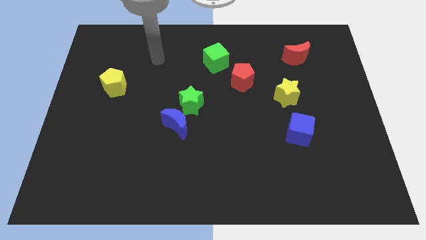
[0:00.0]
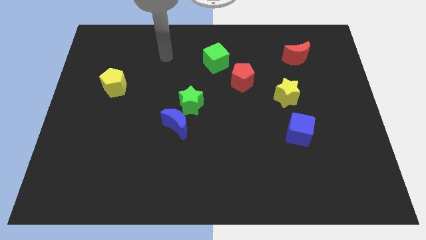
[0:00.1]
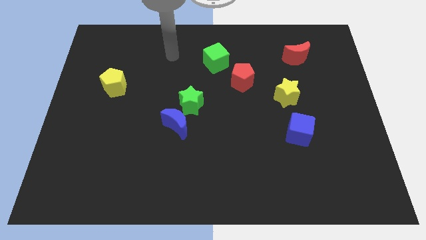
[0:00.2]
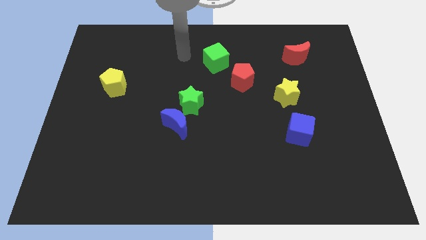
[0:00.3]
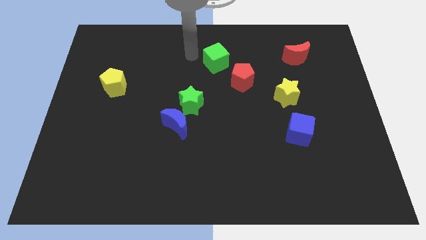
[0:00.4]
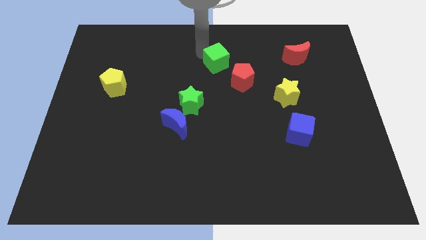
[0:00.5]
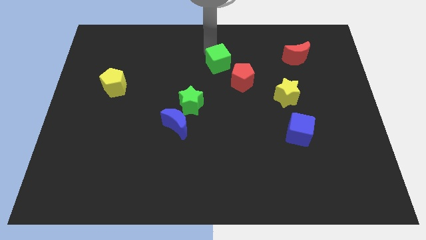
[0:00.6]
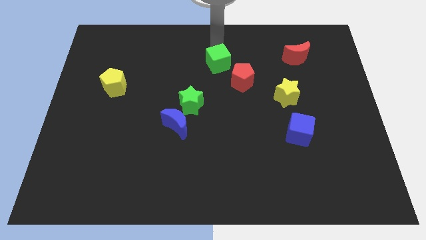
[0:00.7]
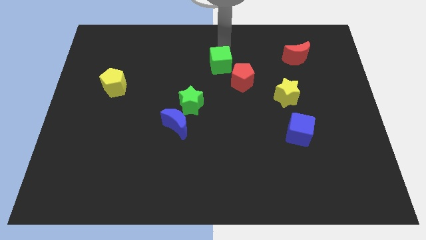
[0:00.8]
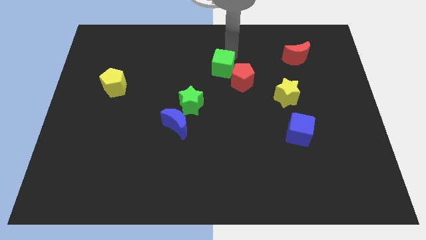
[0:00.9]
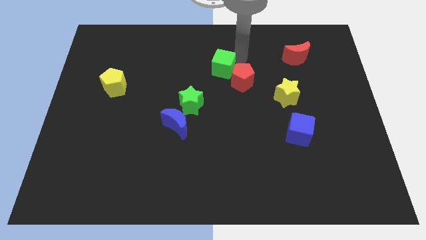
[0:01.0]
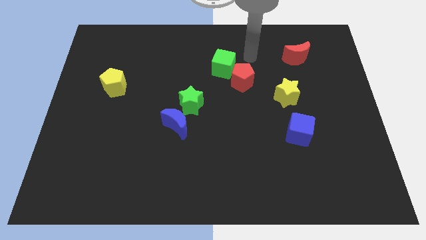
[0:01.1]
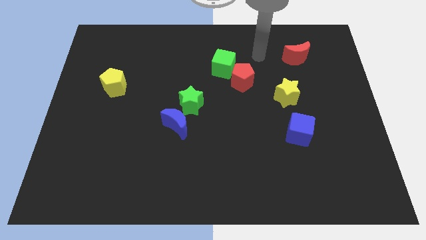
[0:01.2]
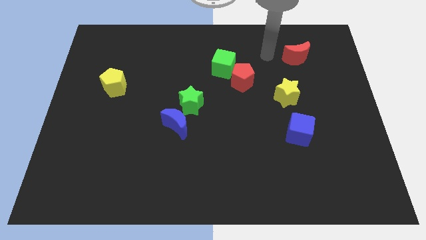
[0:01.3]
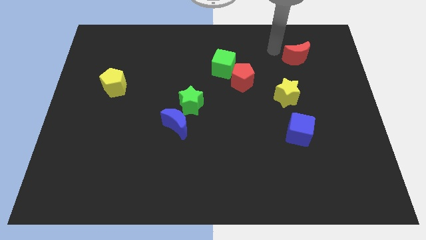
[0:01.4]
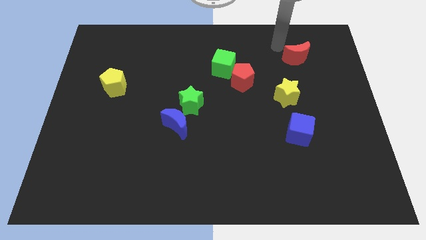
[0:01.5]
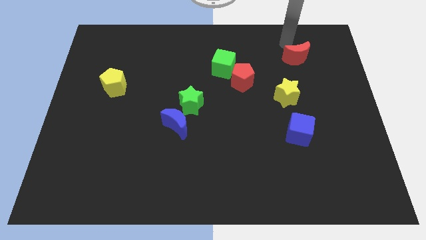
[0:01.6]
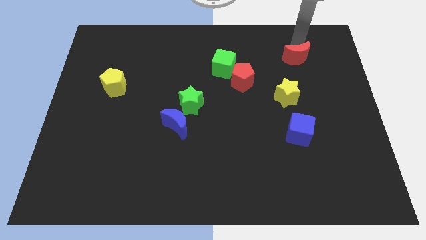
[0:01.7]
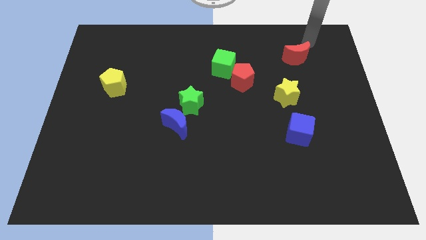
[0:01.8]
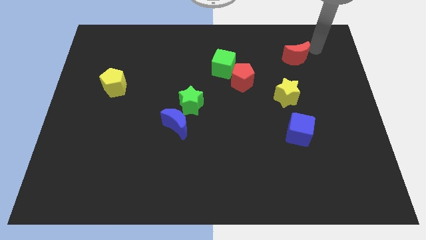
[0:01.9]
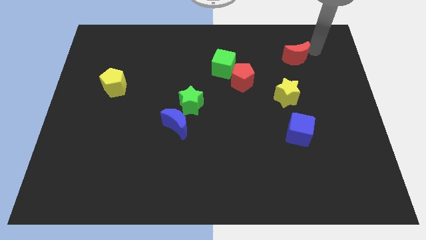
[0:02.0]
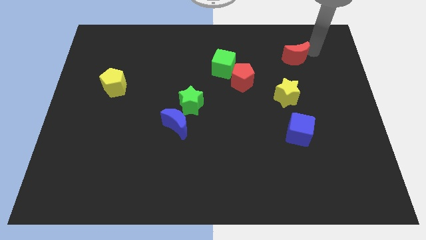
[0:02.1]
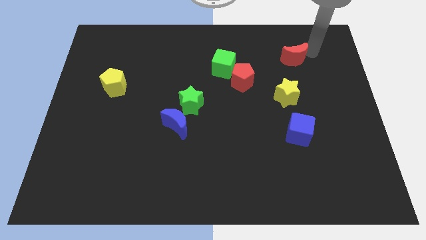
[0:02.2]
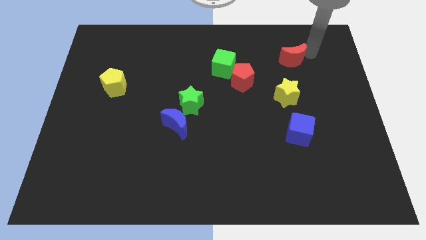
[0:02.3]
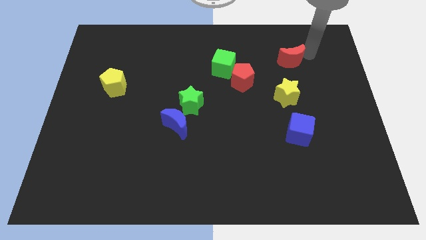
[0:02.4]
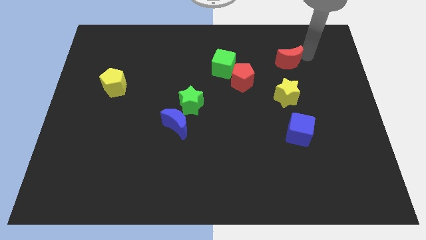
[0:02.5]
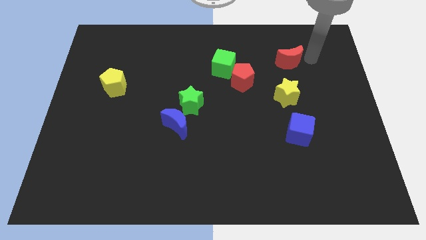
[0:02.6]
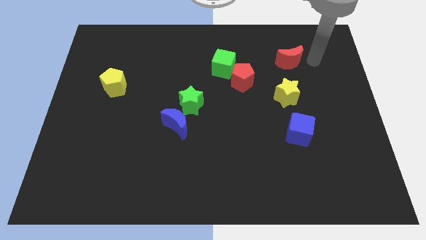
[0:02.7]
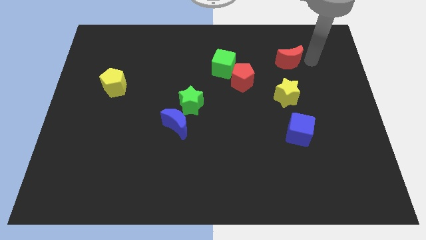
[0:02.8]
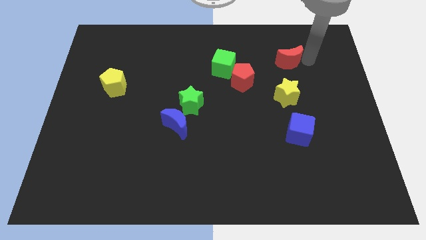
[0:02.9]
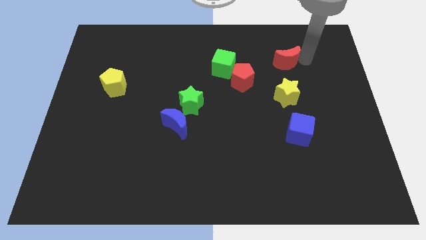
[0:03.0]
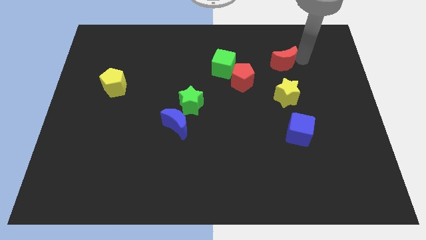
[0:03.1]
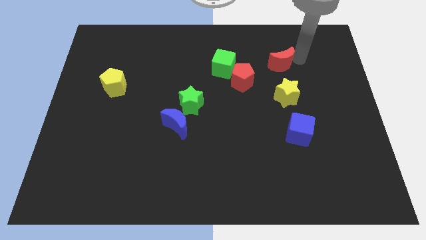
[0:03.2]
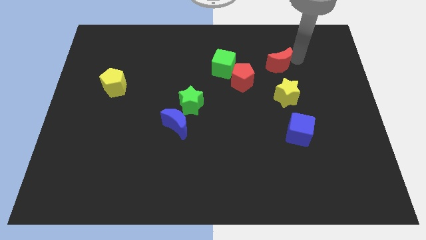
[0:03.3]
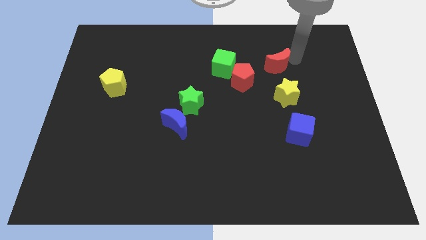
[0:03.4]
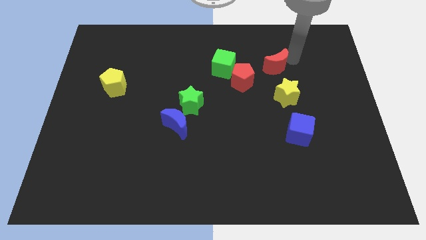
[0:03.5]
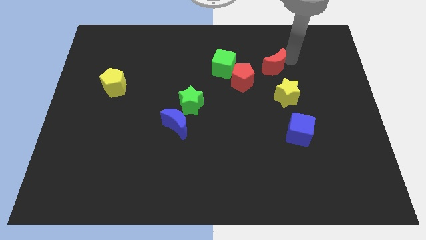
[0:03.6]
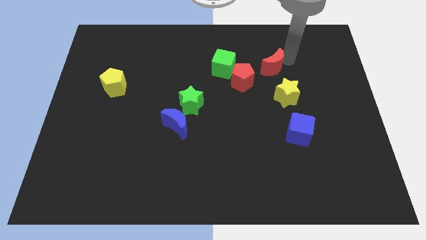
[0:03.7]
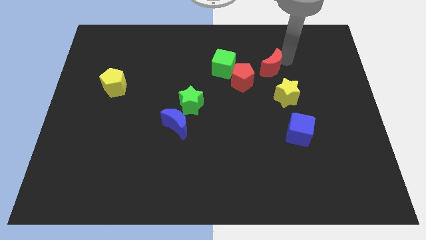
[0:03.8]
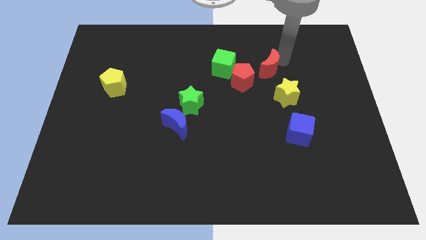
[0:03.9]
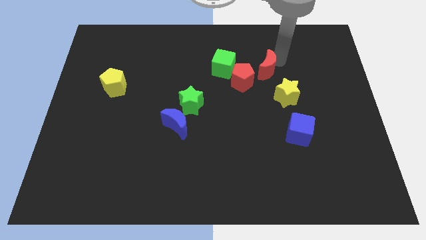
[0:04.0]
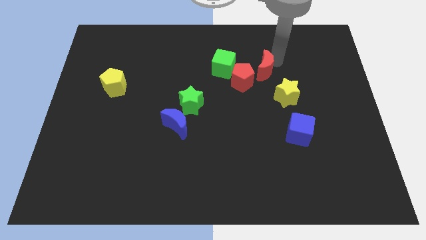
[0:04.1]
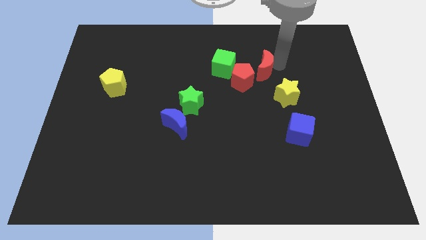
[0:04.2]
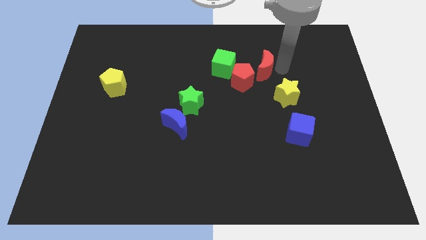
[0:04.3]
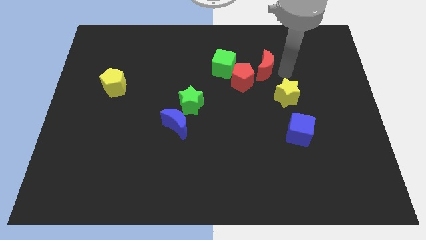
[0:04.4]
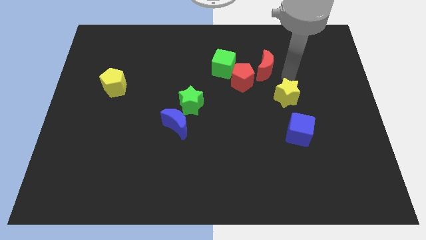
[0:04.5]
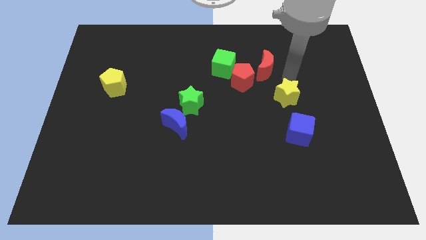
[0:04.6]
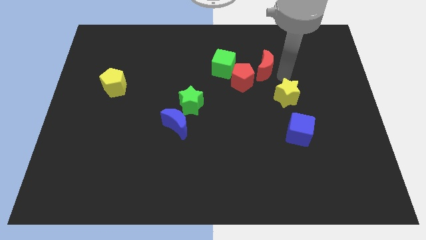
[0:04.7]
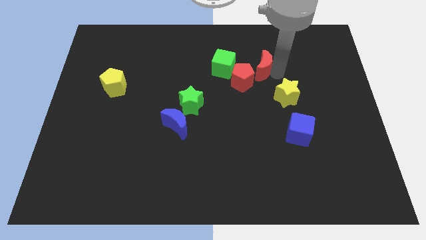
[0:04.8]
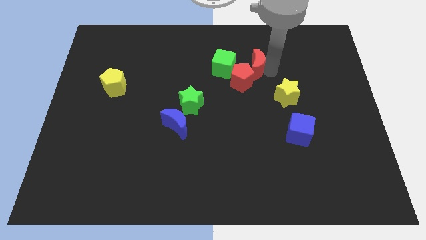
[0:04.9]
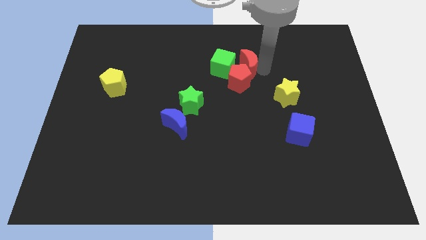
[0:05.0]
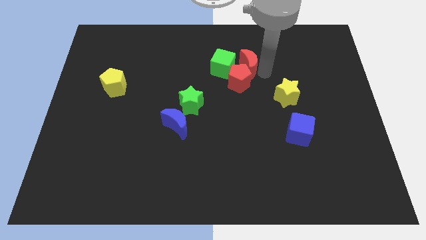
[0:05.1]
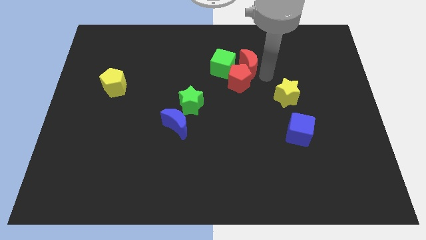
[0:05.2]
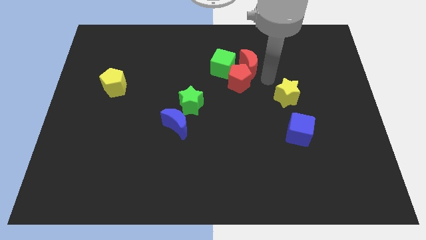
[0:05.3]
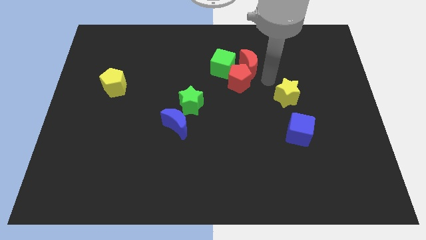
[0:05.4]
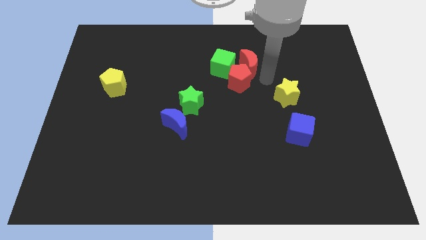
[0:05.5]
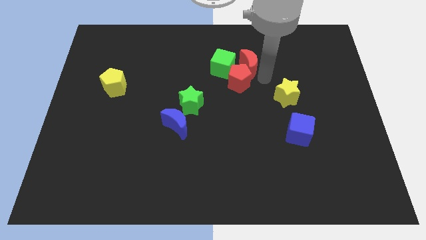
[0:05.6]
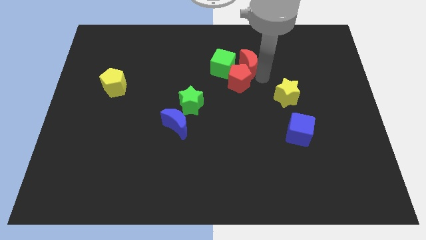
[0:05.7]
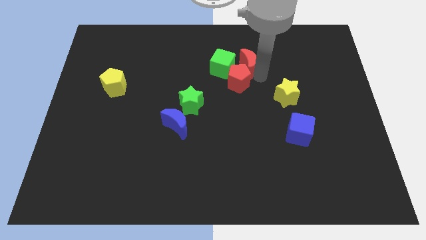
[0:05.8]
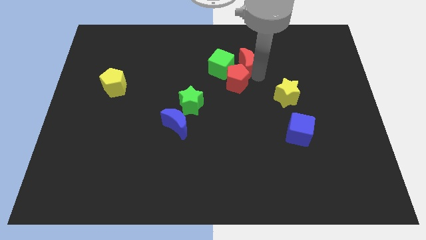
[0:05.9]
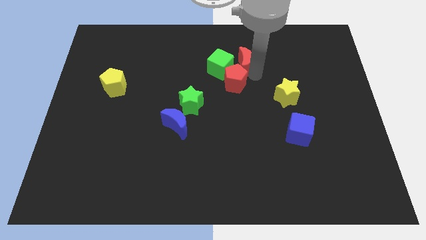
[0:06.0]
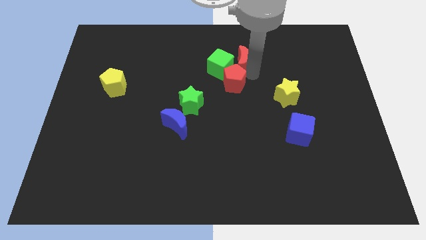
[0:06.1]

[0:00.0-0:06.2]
push the red moon towards the green cube

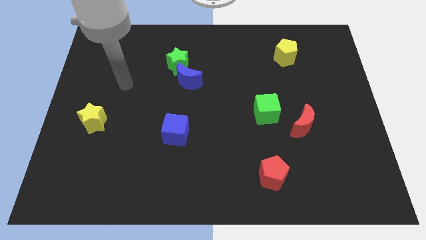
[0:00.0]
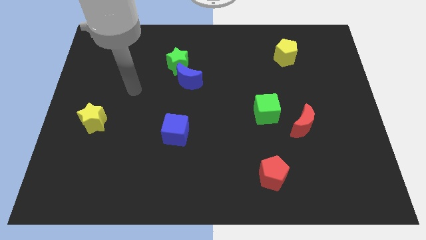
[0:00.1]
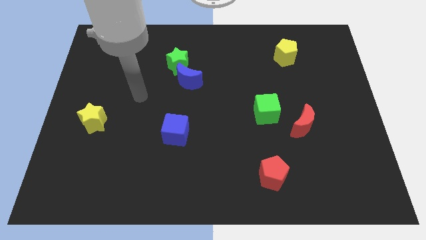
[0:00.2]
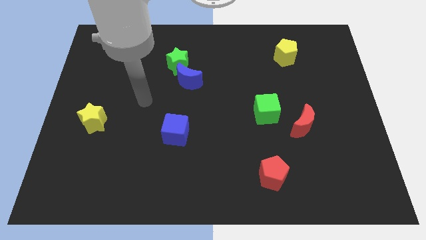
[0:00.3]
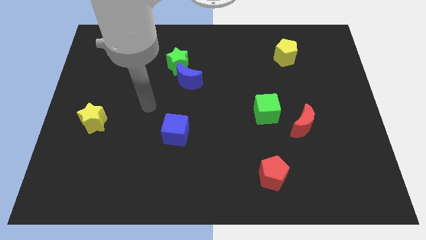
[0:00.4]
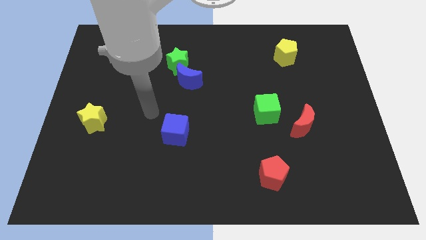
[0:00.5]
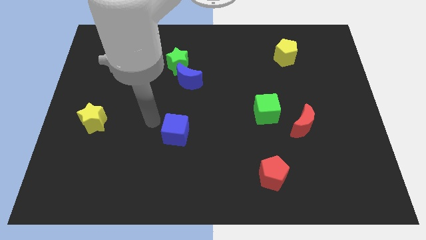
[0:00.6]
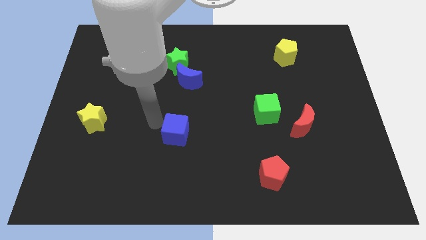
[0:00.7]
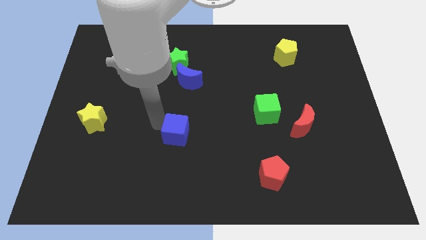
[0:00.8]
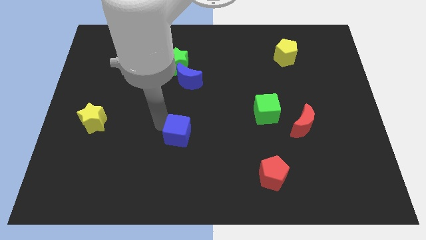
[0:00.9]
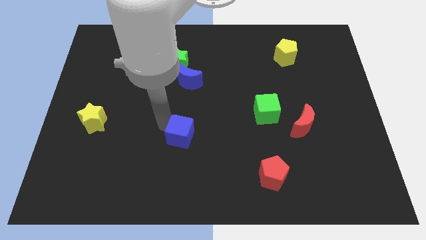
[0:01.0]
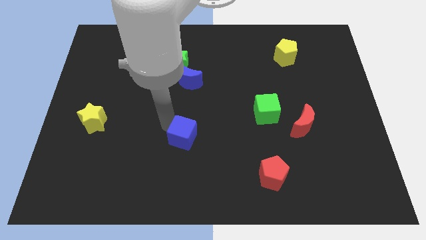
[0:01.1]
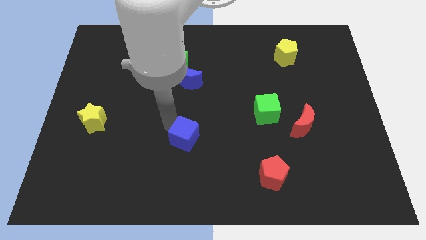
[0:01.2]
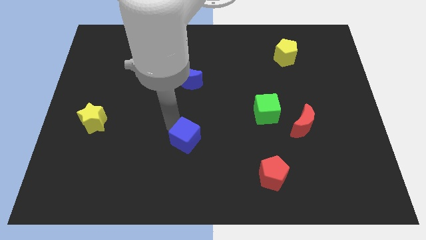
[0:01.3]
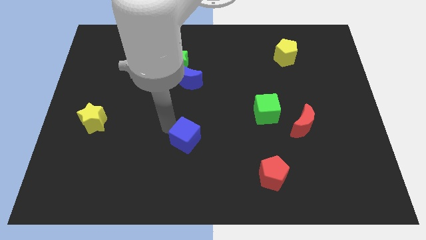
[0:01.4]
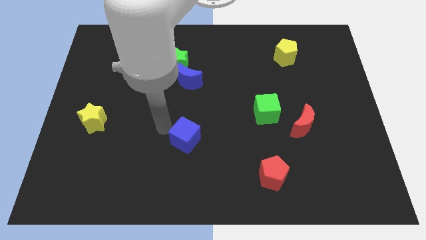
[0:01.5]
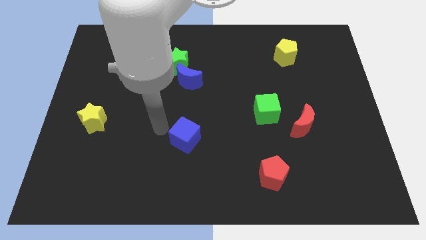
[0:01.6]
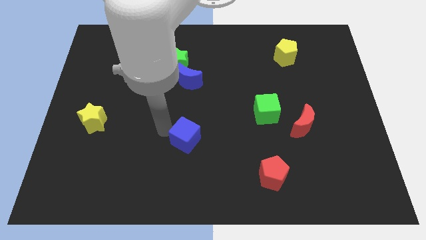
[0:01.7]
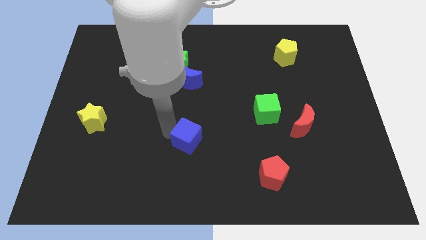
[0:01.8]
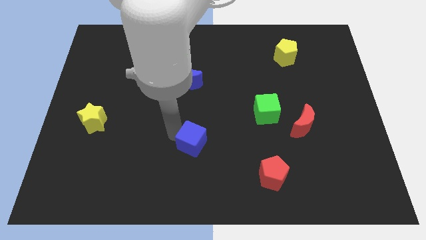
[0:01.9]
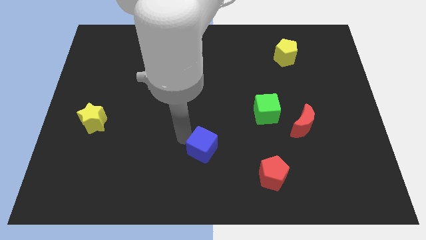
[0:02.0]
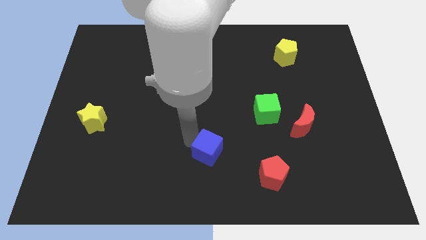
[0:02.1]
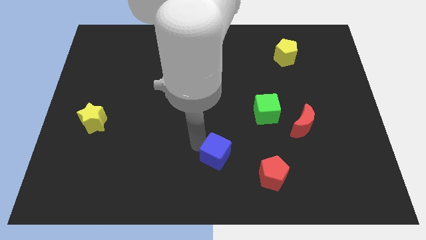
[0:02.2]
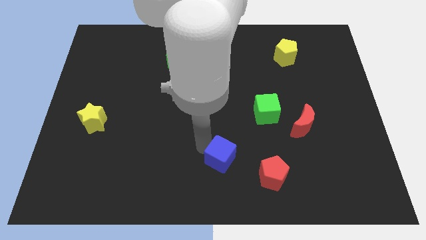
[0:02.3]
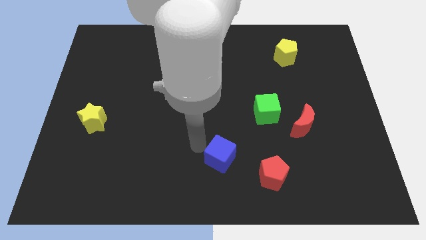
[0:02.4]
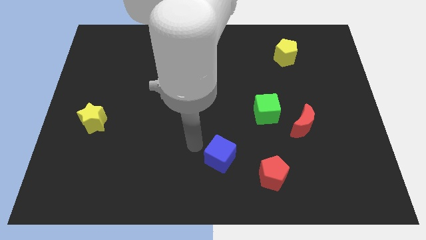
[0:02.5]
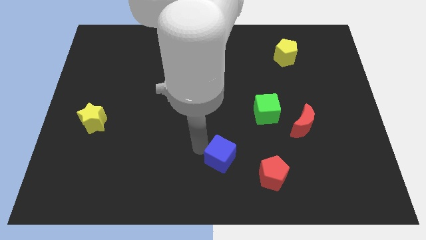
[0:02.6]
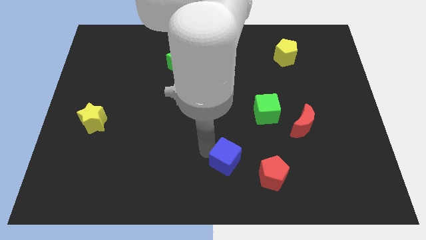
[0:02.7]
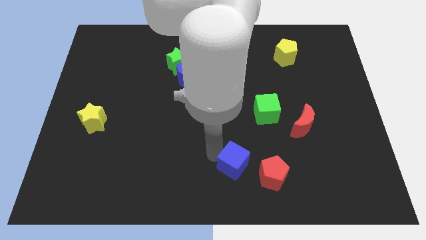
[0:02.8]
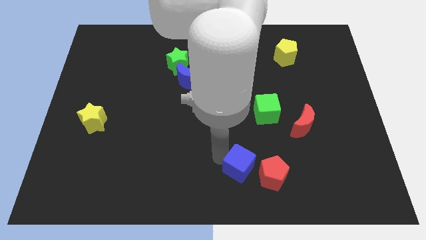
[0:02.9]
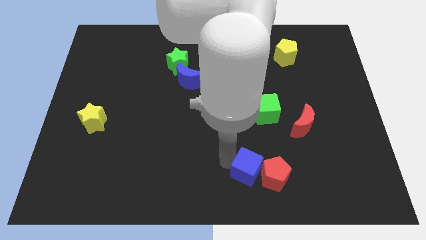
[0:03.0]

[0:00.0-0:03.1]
put the blue cube next to the red pentagon
